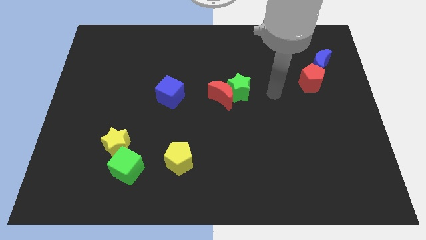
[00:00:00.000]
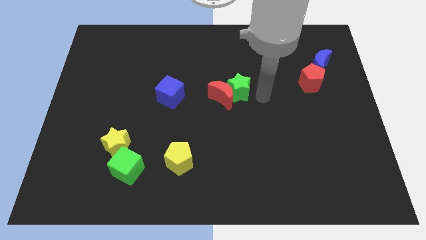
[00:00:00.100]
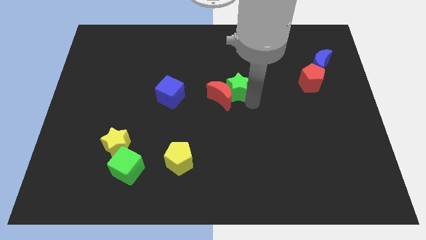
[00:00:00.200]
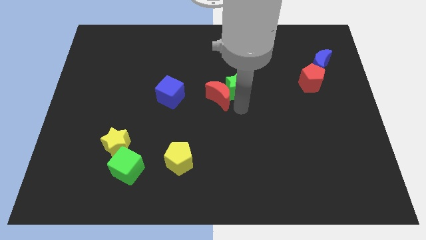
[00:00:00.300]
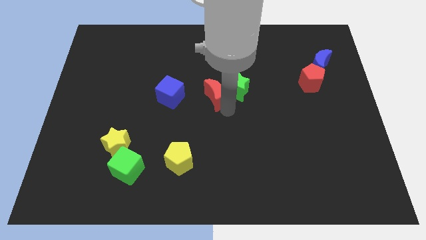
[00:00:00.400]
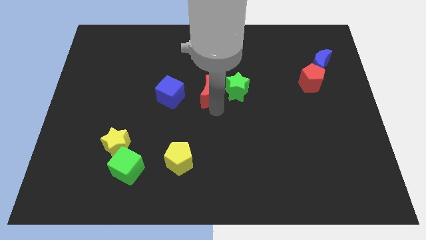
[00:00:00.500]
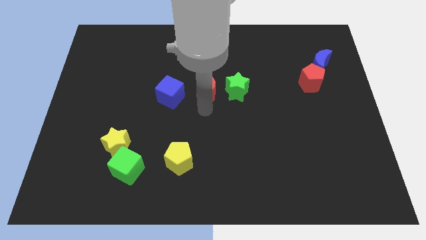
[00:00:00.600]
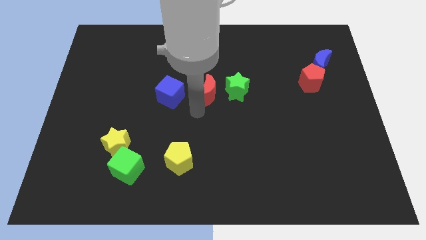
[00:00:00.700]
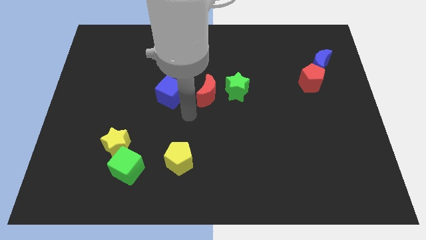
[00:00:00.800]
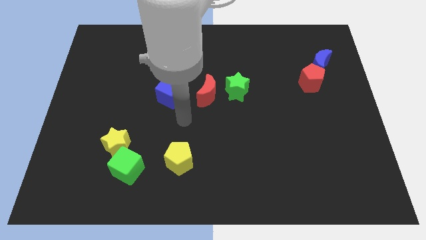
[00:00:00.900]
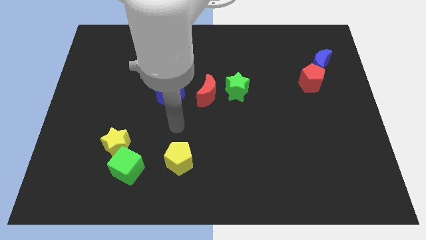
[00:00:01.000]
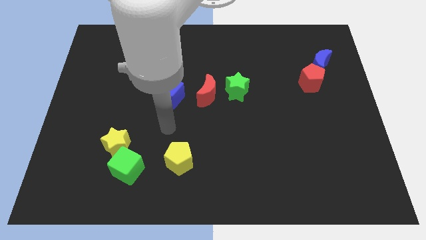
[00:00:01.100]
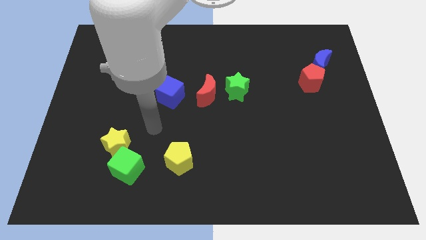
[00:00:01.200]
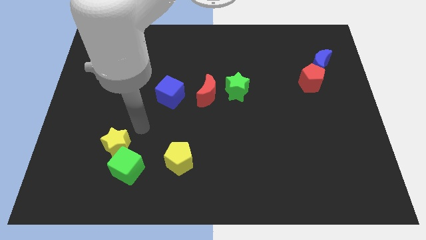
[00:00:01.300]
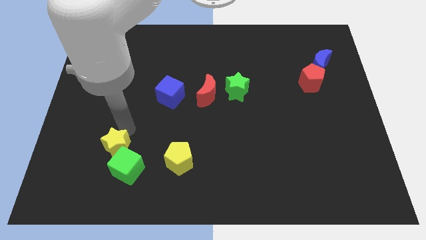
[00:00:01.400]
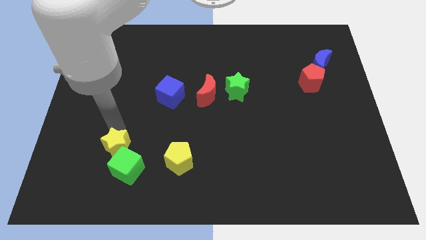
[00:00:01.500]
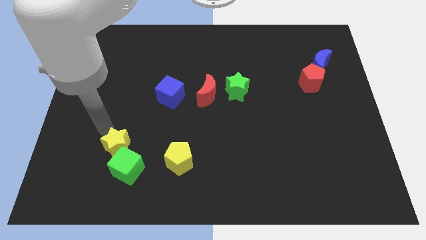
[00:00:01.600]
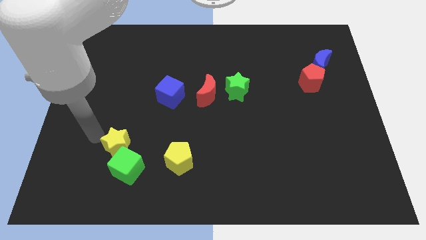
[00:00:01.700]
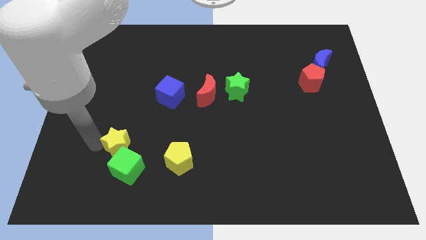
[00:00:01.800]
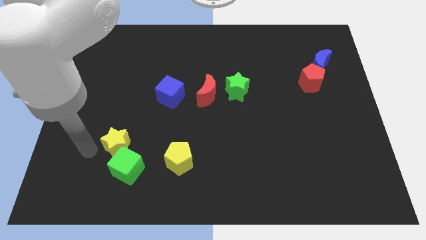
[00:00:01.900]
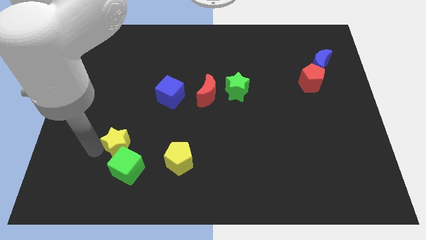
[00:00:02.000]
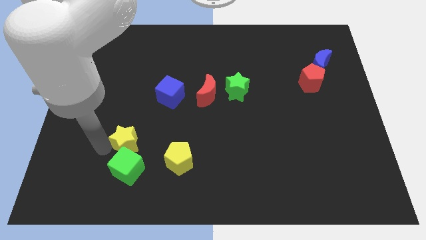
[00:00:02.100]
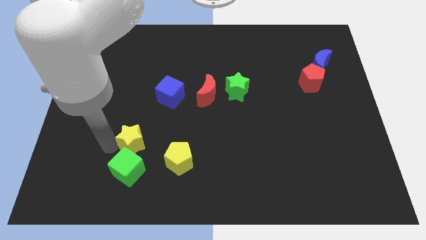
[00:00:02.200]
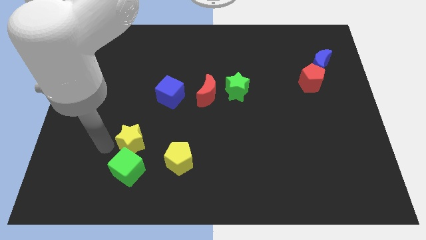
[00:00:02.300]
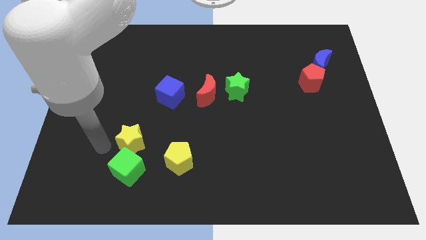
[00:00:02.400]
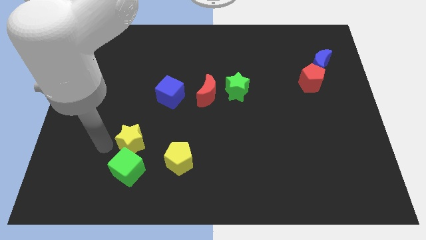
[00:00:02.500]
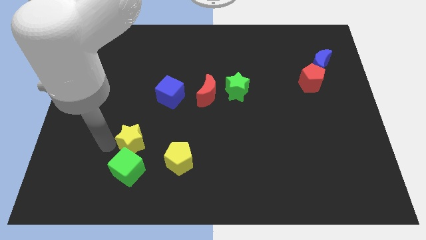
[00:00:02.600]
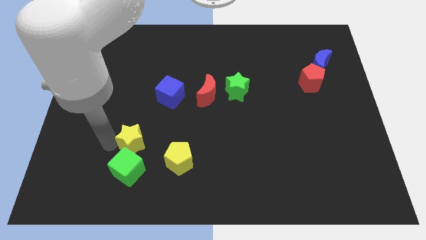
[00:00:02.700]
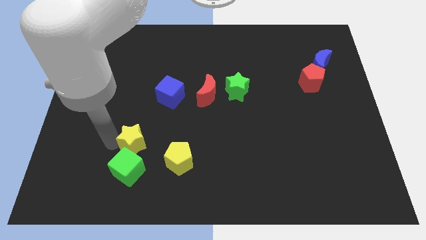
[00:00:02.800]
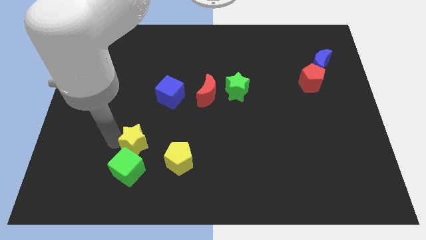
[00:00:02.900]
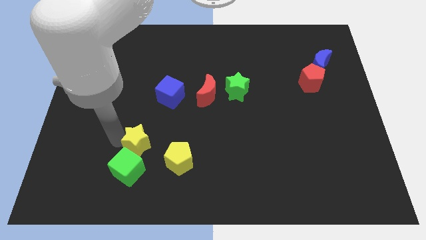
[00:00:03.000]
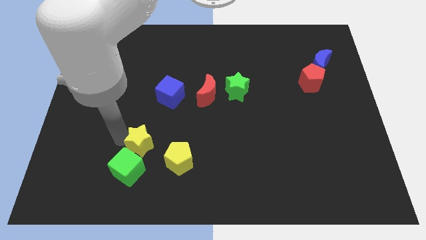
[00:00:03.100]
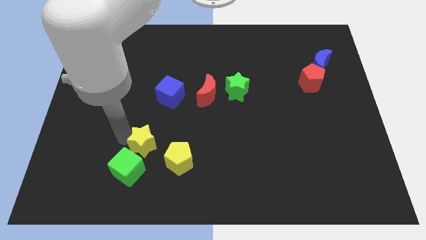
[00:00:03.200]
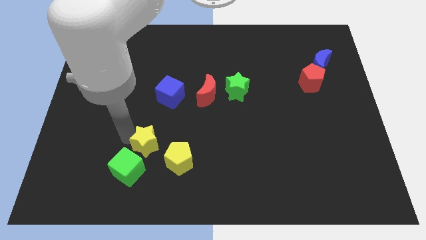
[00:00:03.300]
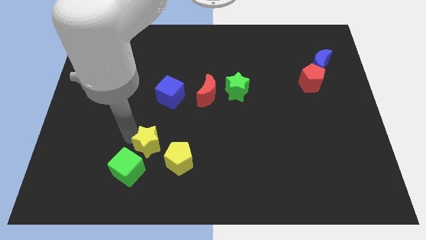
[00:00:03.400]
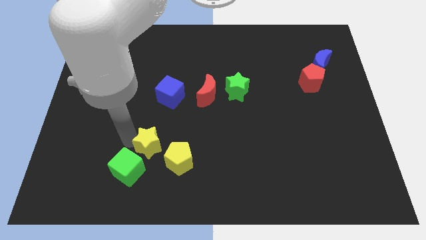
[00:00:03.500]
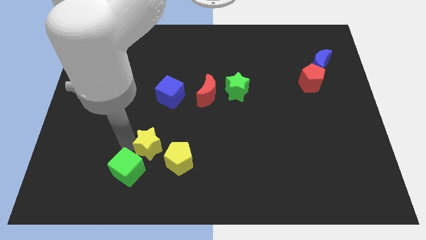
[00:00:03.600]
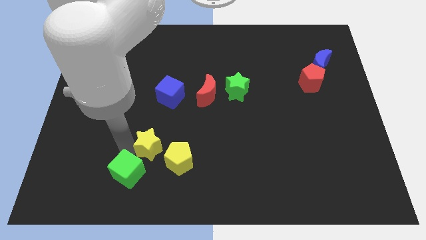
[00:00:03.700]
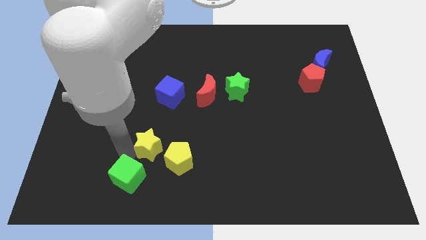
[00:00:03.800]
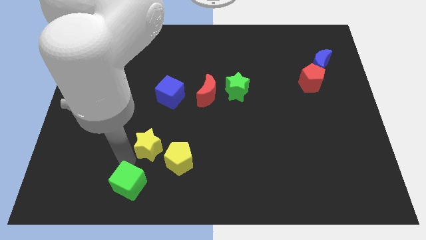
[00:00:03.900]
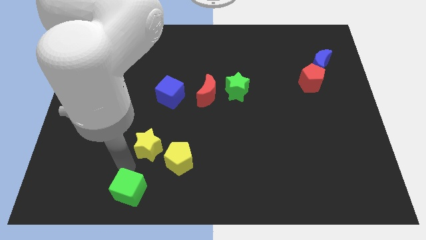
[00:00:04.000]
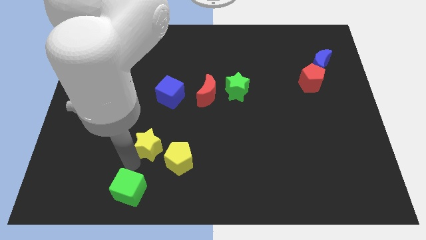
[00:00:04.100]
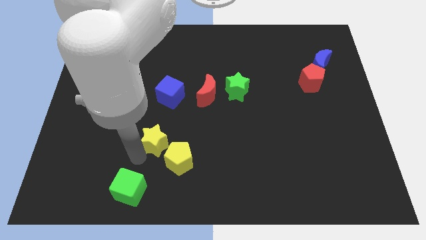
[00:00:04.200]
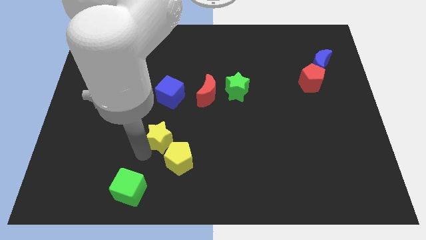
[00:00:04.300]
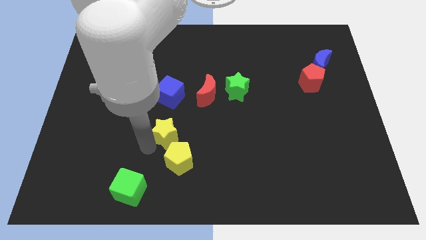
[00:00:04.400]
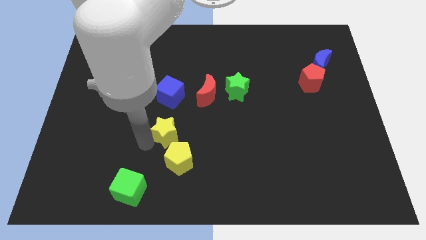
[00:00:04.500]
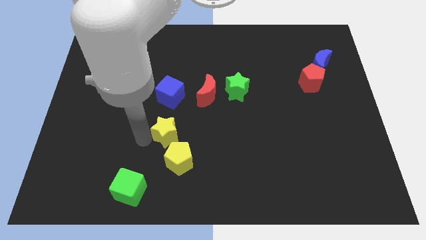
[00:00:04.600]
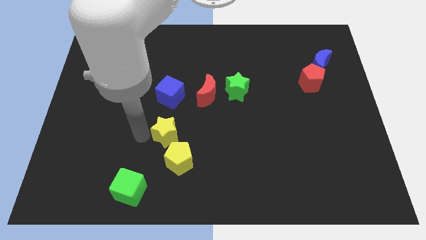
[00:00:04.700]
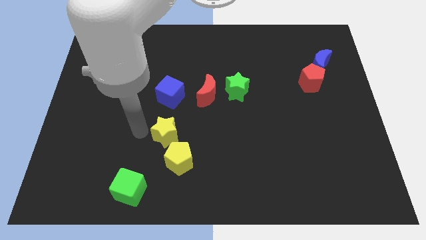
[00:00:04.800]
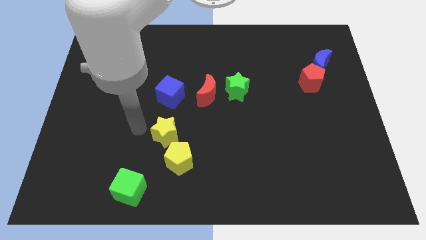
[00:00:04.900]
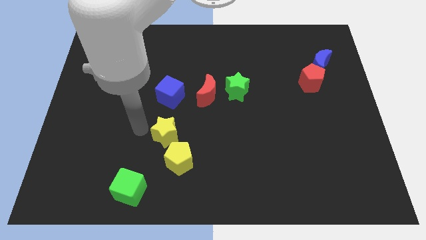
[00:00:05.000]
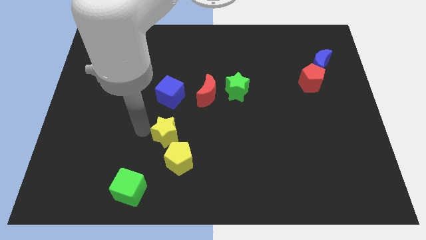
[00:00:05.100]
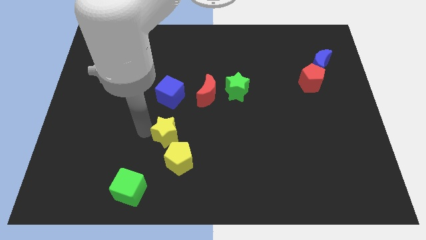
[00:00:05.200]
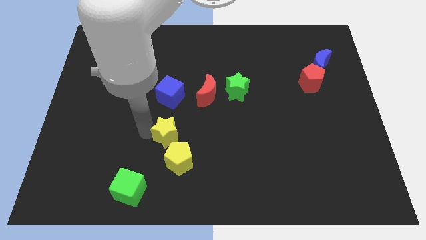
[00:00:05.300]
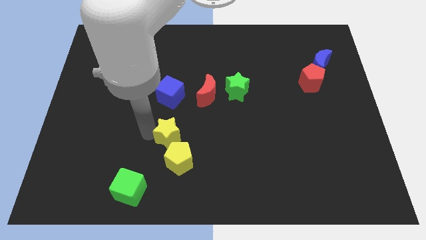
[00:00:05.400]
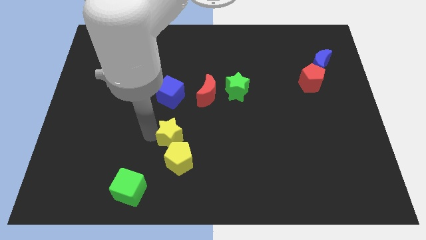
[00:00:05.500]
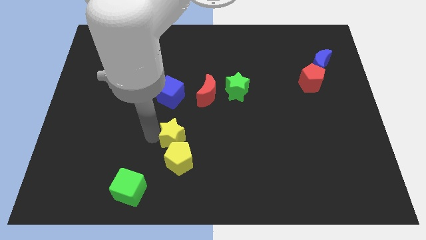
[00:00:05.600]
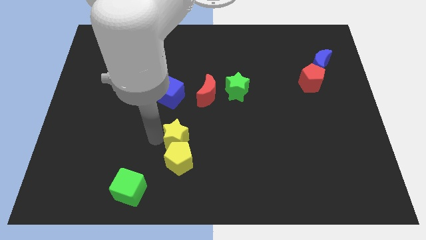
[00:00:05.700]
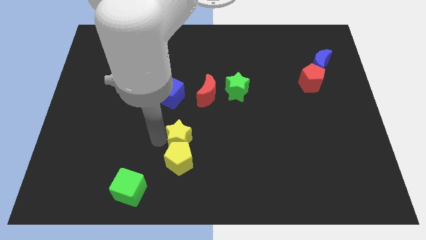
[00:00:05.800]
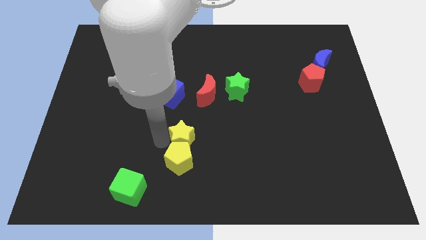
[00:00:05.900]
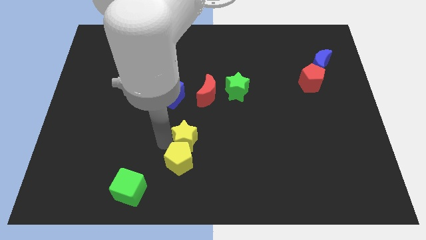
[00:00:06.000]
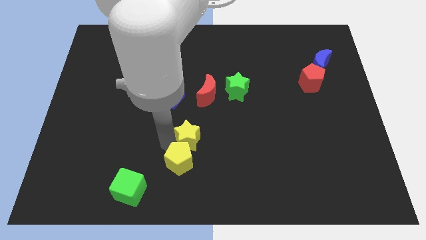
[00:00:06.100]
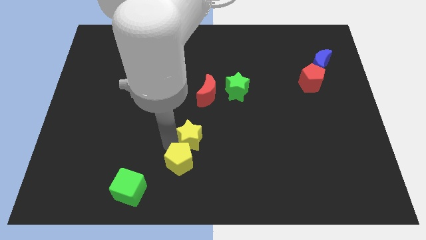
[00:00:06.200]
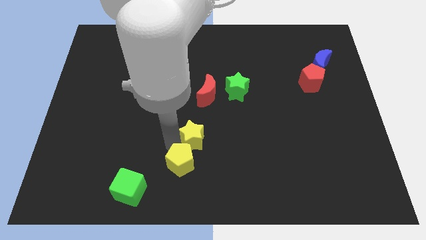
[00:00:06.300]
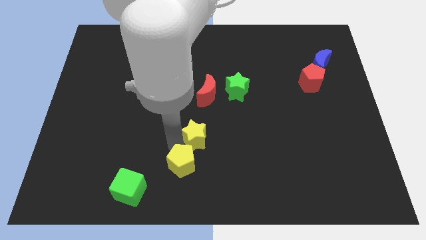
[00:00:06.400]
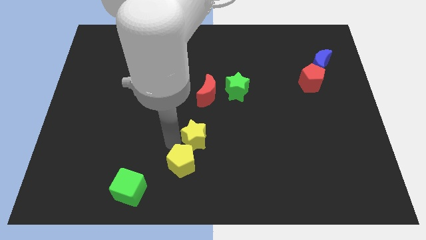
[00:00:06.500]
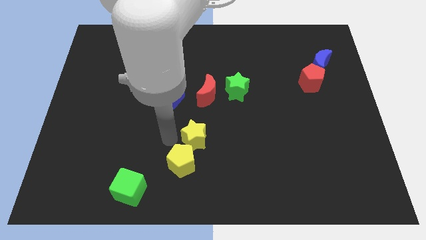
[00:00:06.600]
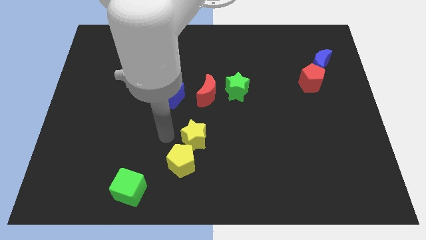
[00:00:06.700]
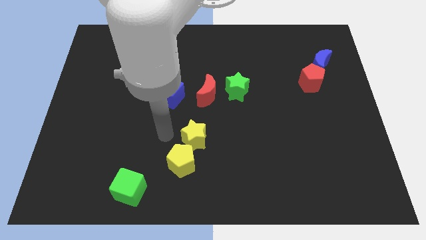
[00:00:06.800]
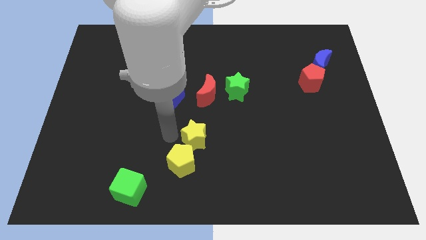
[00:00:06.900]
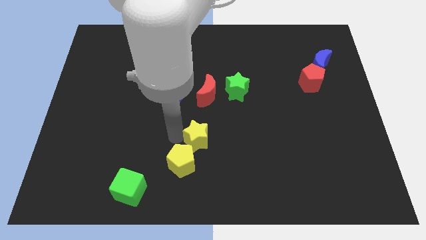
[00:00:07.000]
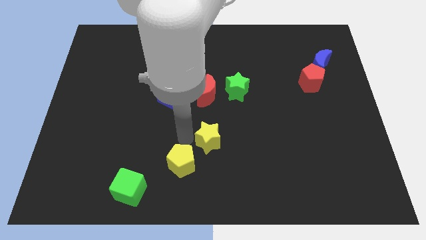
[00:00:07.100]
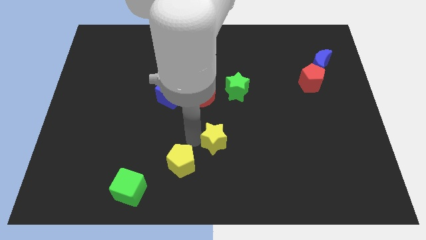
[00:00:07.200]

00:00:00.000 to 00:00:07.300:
move the yellow star to the right

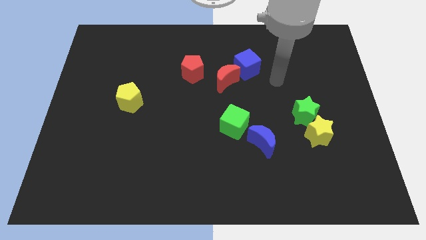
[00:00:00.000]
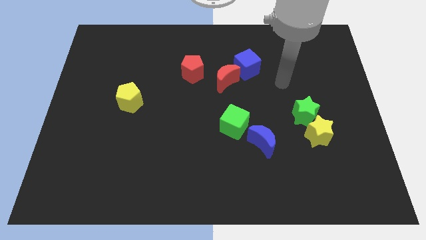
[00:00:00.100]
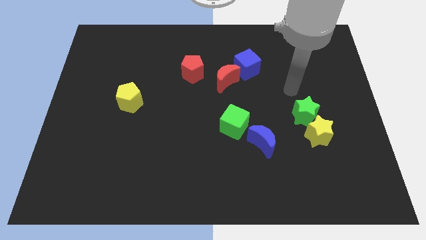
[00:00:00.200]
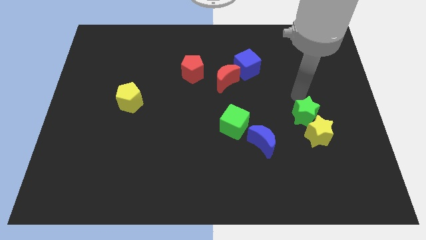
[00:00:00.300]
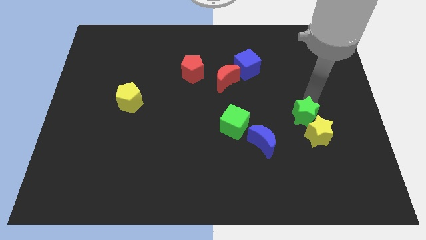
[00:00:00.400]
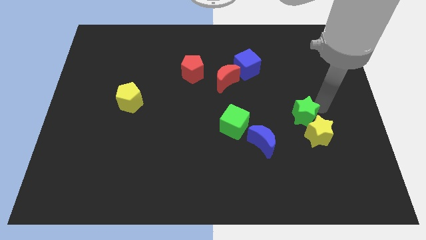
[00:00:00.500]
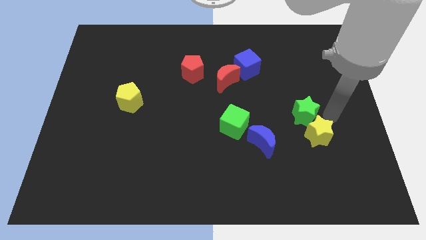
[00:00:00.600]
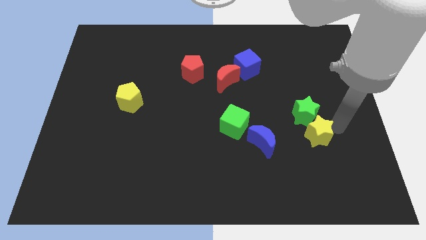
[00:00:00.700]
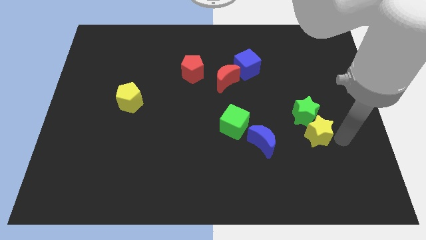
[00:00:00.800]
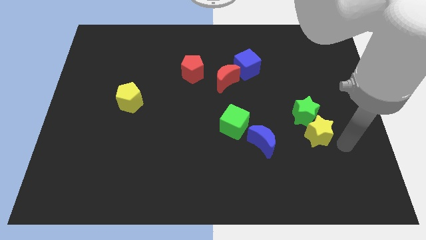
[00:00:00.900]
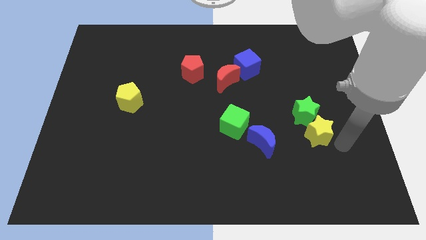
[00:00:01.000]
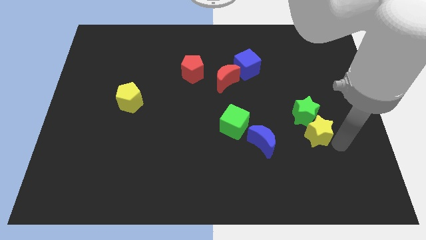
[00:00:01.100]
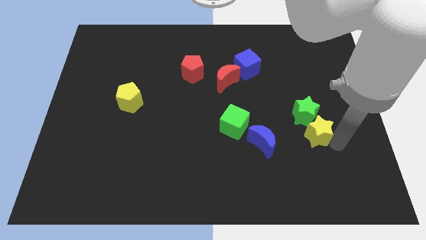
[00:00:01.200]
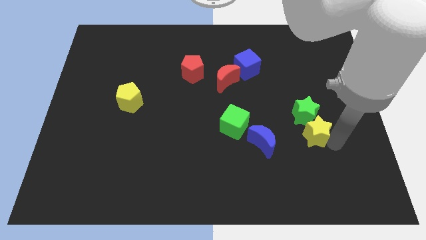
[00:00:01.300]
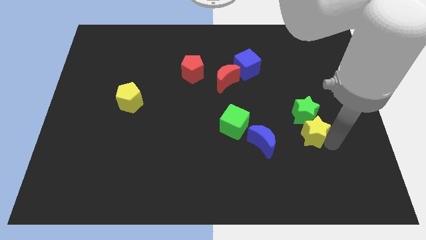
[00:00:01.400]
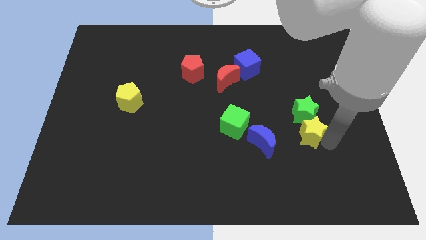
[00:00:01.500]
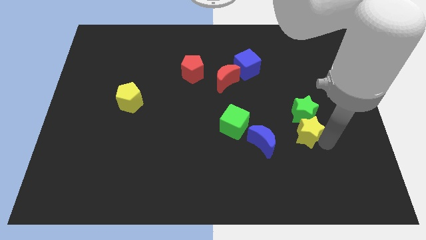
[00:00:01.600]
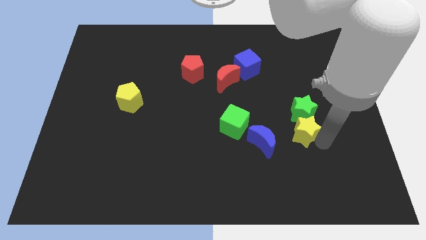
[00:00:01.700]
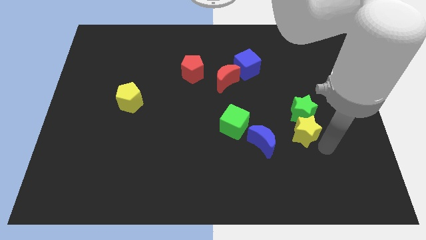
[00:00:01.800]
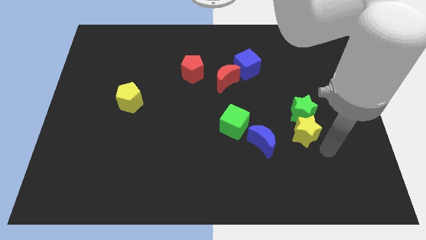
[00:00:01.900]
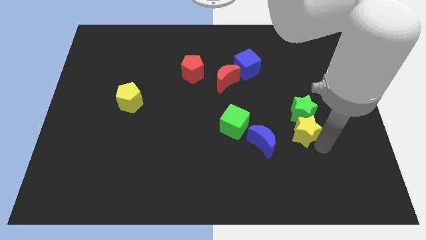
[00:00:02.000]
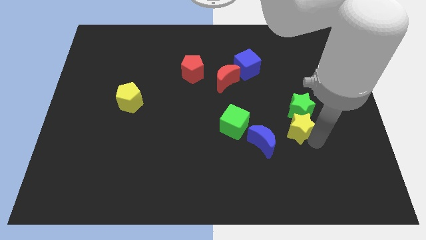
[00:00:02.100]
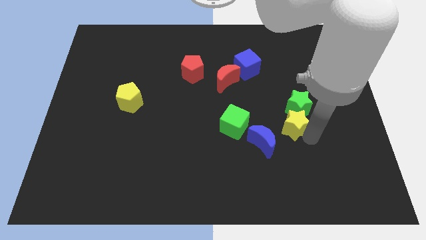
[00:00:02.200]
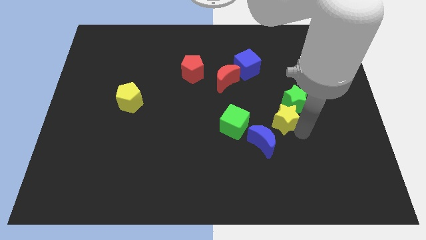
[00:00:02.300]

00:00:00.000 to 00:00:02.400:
move the yellow star slightly upwards and left
